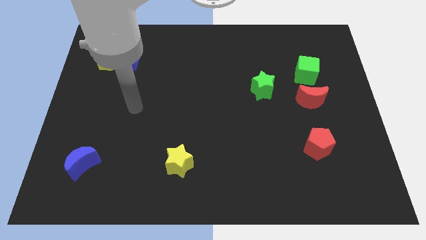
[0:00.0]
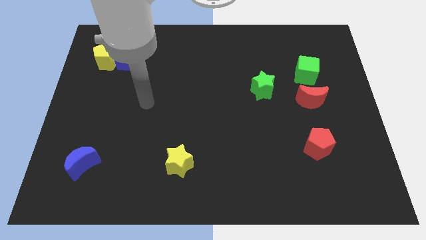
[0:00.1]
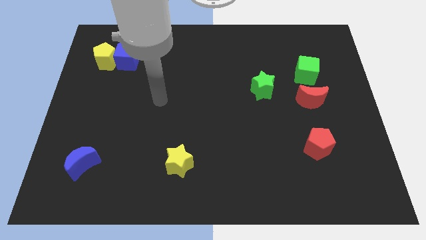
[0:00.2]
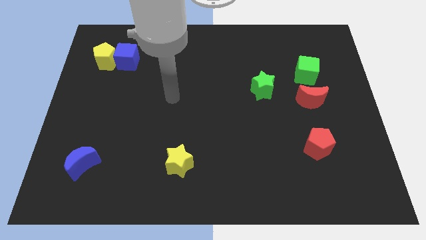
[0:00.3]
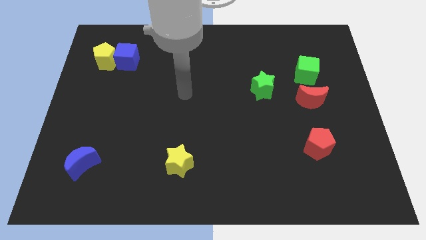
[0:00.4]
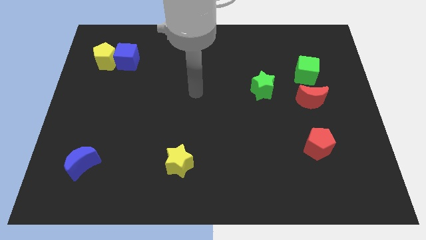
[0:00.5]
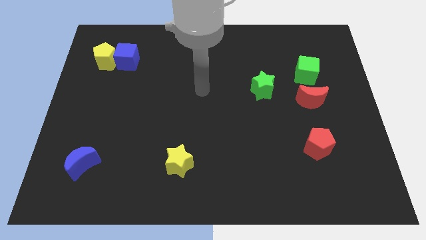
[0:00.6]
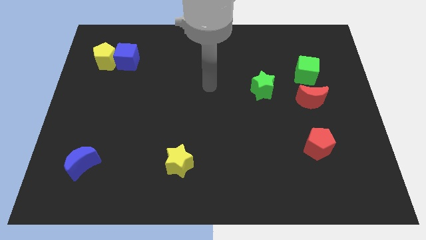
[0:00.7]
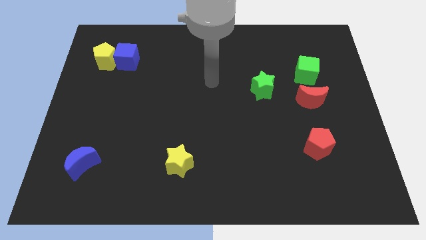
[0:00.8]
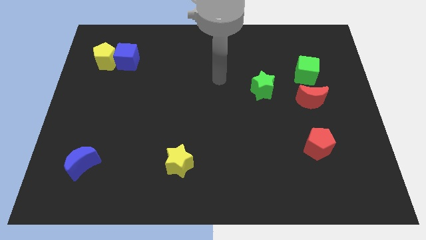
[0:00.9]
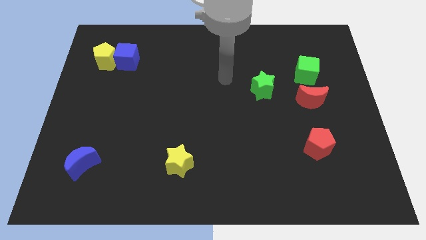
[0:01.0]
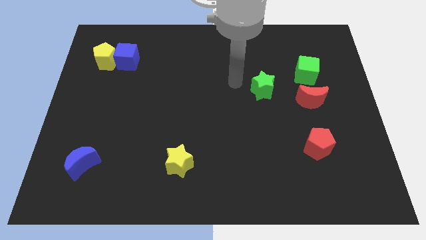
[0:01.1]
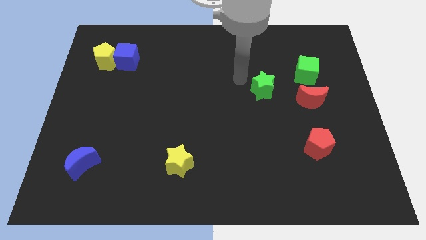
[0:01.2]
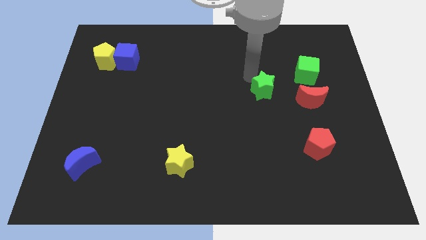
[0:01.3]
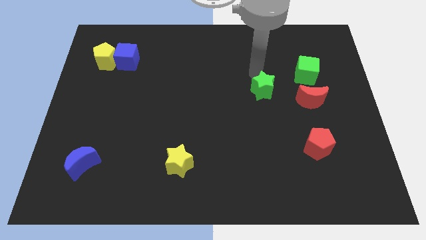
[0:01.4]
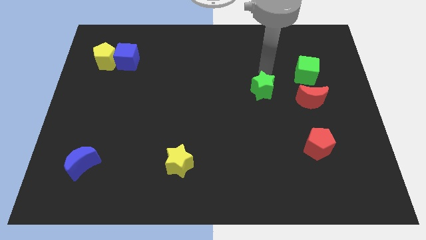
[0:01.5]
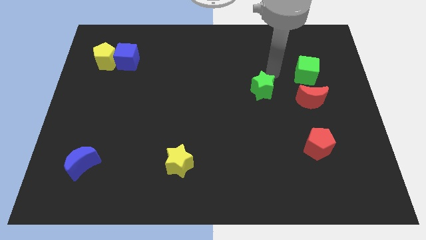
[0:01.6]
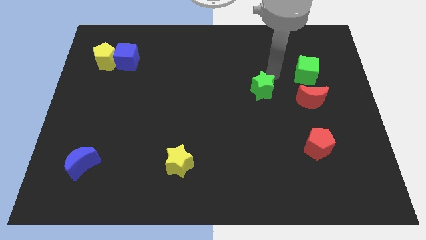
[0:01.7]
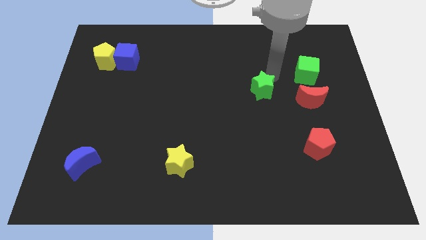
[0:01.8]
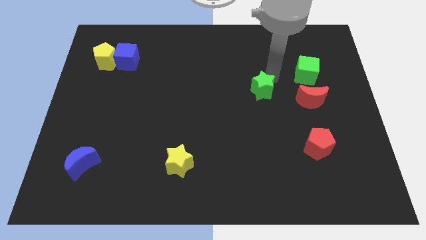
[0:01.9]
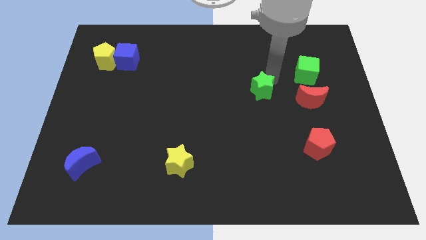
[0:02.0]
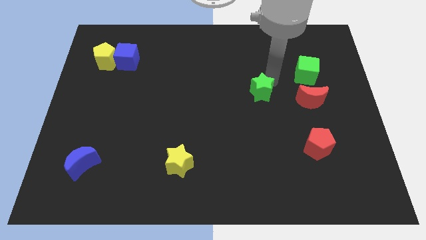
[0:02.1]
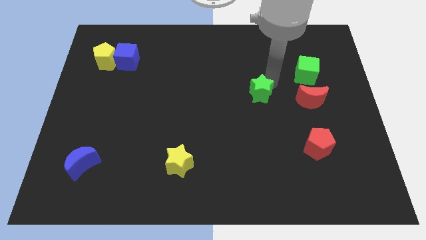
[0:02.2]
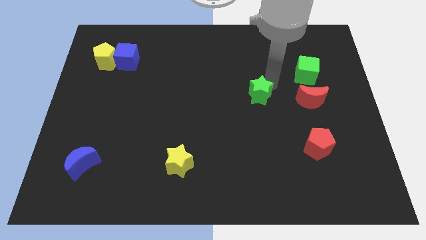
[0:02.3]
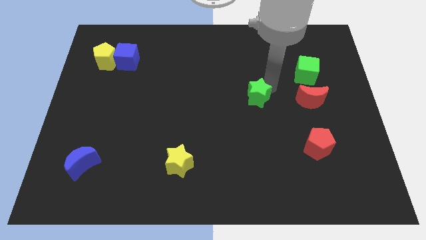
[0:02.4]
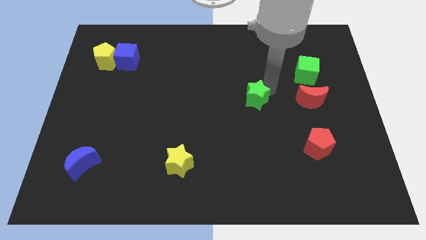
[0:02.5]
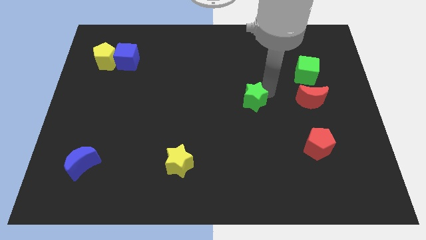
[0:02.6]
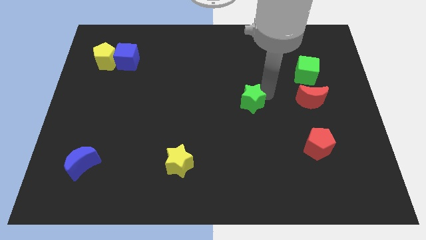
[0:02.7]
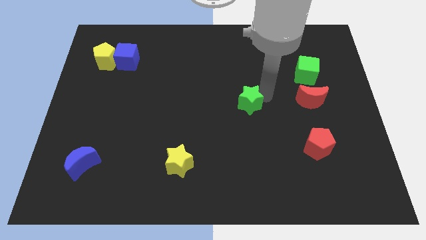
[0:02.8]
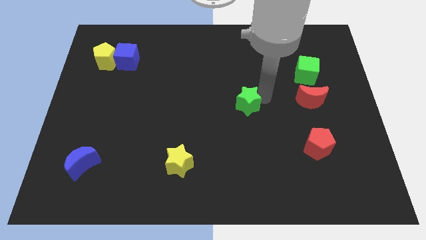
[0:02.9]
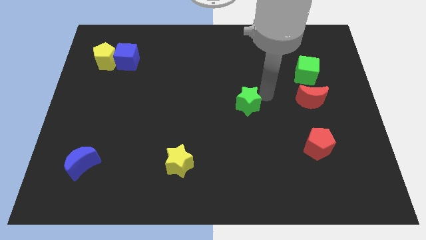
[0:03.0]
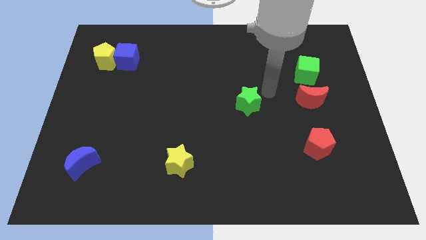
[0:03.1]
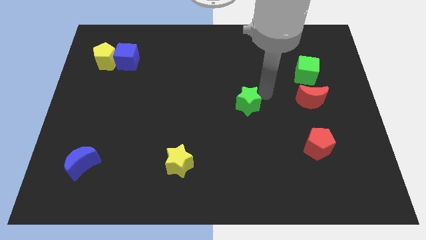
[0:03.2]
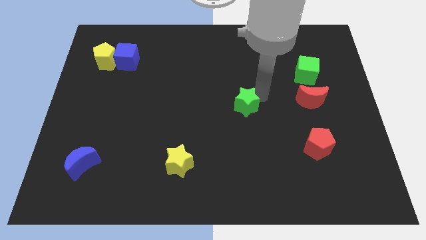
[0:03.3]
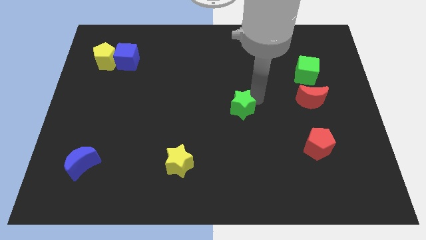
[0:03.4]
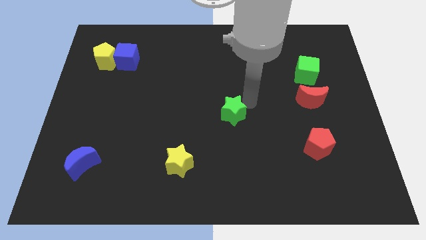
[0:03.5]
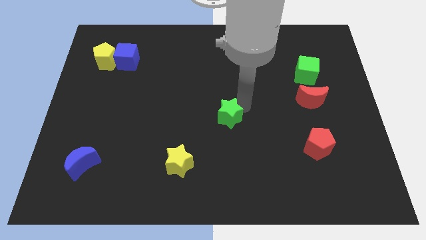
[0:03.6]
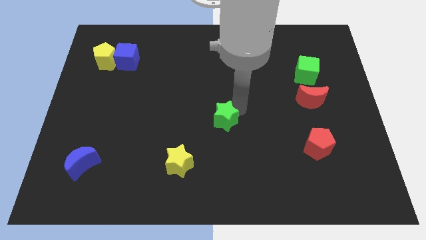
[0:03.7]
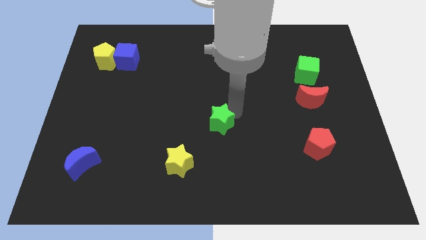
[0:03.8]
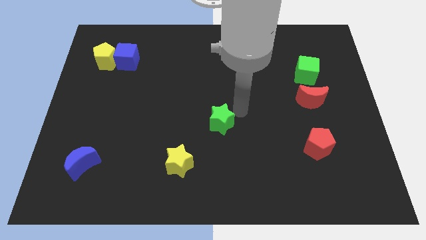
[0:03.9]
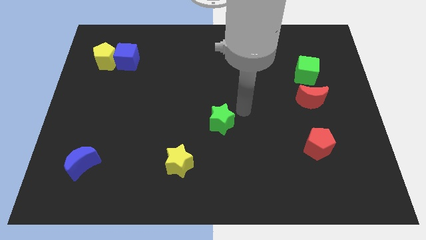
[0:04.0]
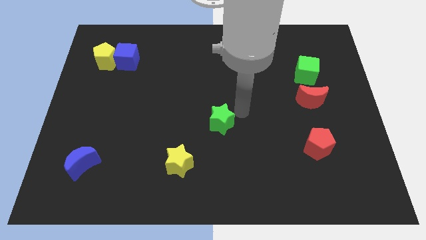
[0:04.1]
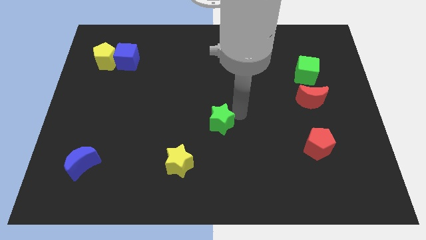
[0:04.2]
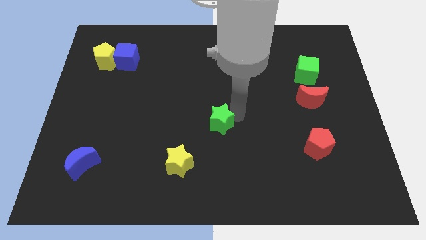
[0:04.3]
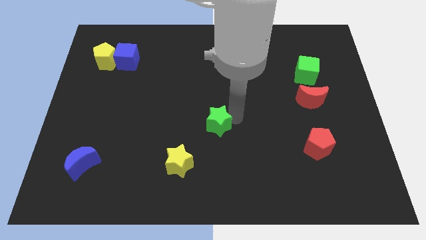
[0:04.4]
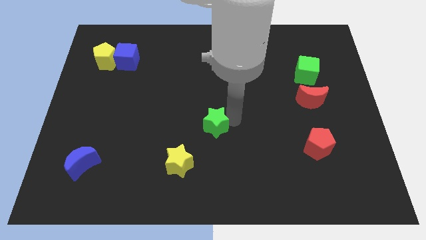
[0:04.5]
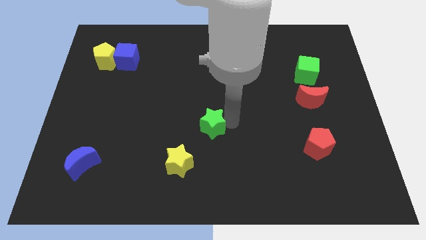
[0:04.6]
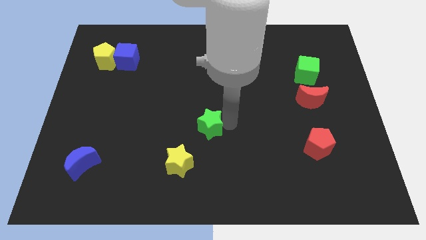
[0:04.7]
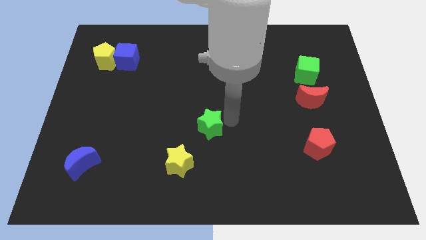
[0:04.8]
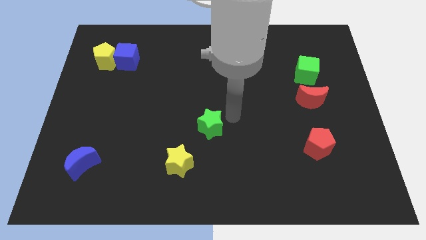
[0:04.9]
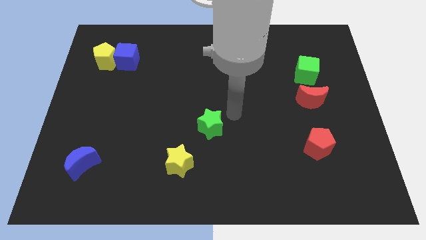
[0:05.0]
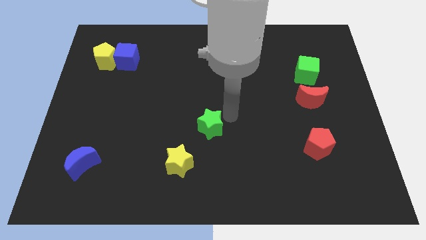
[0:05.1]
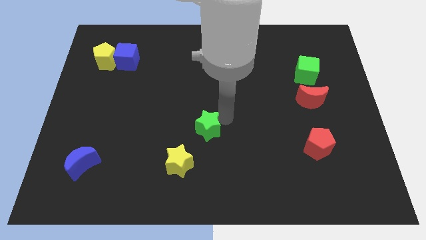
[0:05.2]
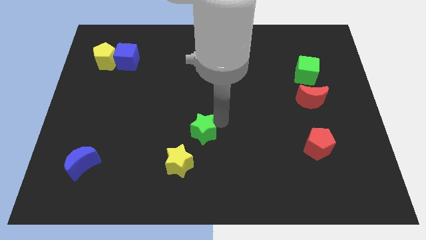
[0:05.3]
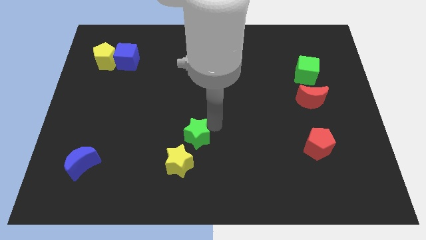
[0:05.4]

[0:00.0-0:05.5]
slide the green star down and then to the left

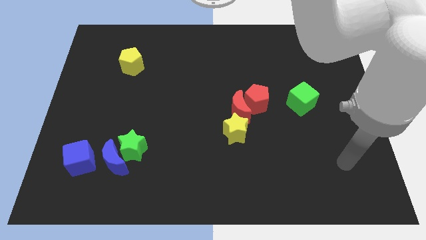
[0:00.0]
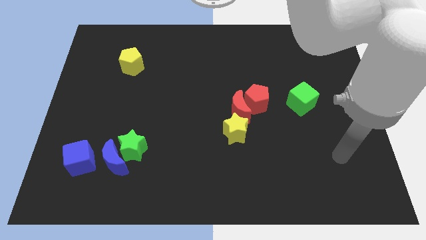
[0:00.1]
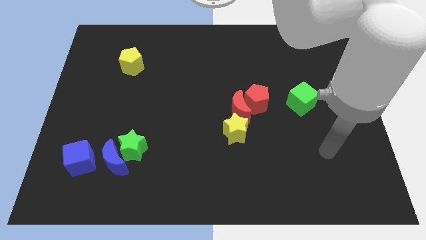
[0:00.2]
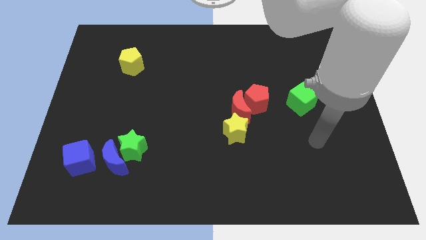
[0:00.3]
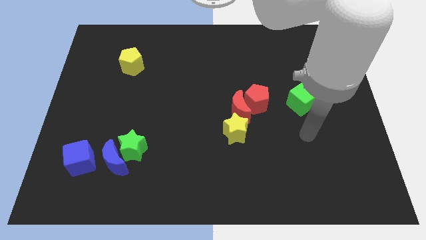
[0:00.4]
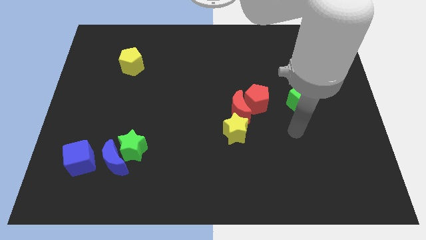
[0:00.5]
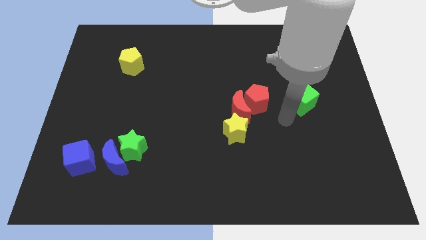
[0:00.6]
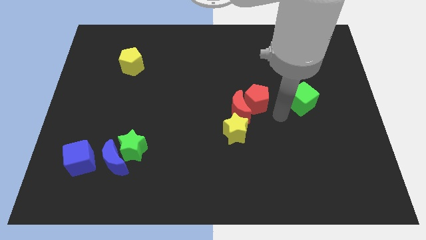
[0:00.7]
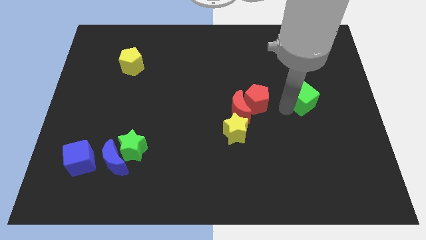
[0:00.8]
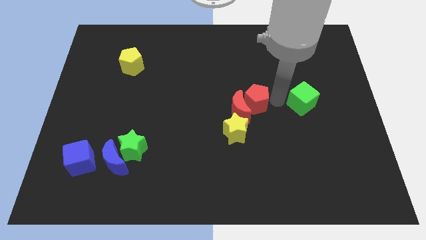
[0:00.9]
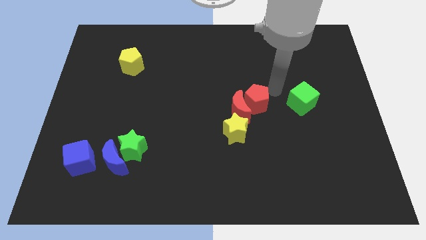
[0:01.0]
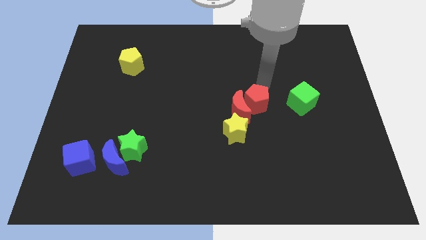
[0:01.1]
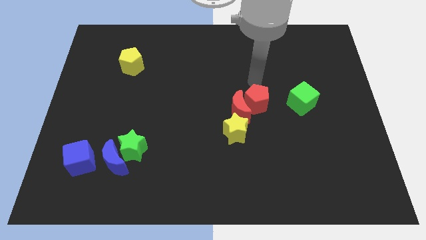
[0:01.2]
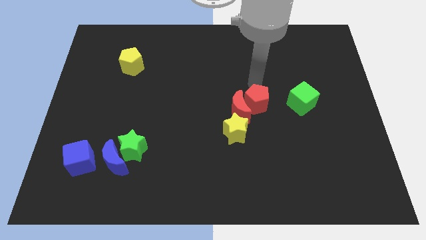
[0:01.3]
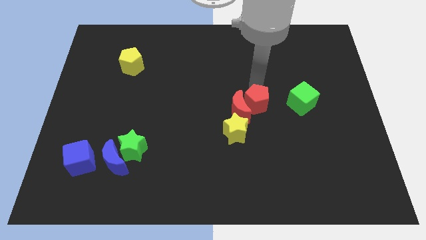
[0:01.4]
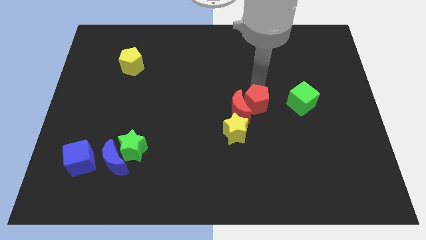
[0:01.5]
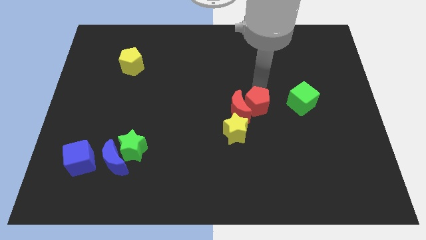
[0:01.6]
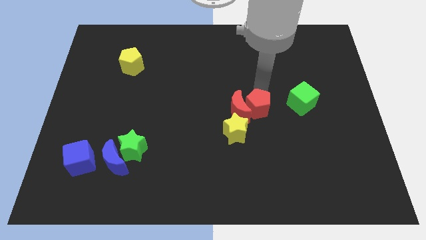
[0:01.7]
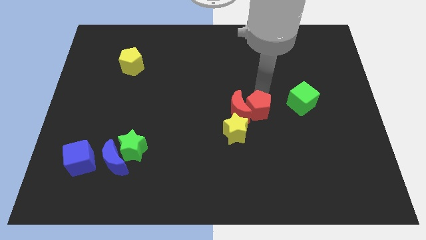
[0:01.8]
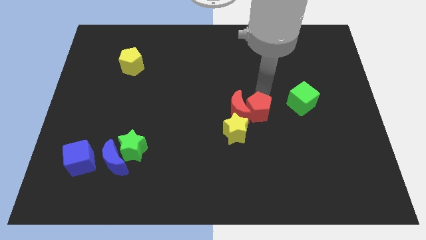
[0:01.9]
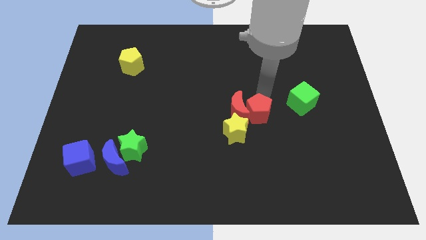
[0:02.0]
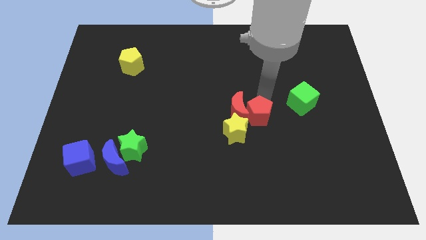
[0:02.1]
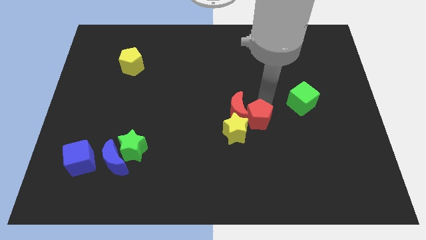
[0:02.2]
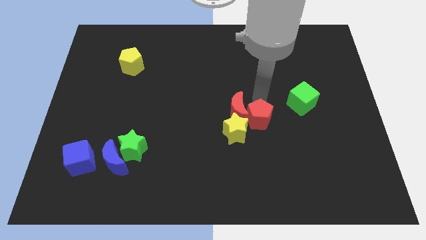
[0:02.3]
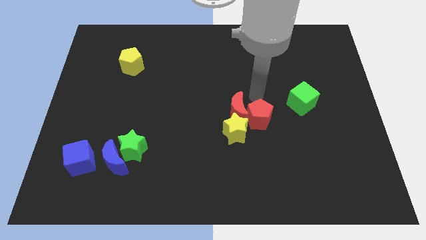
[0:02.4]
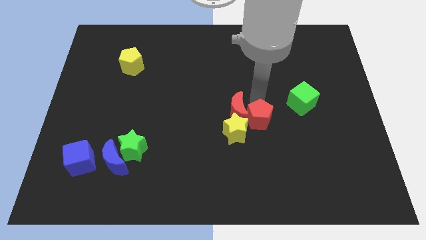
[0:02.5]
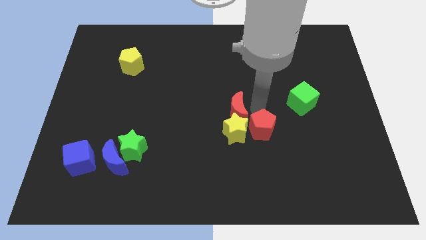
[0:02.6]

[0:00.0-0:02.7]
move the red pentagon down a little

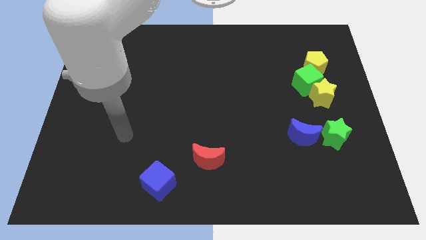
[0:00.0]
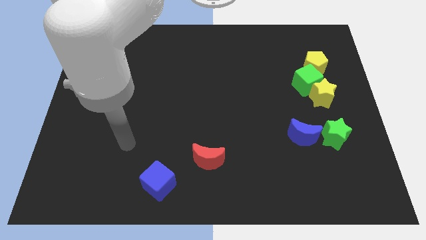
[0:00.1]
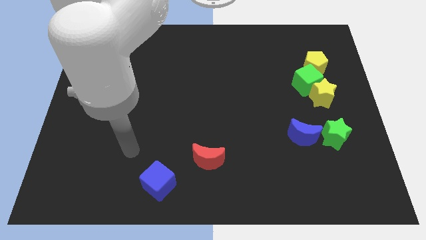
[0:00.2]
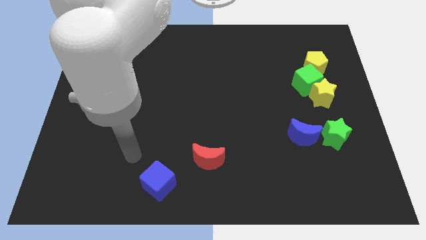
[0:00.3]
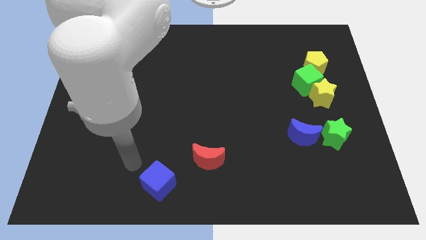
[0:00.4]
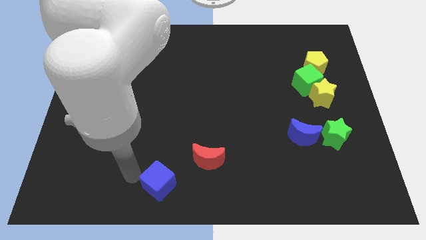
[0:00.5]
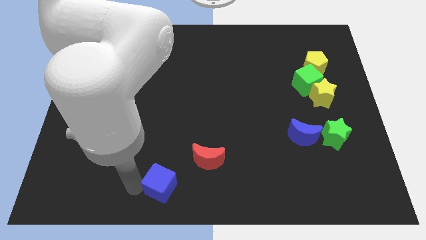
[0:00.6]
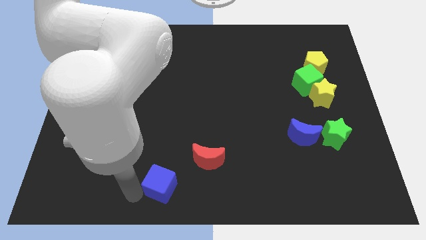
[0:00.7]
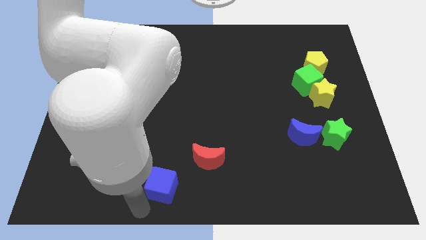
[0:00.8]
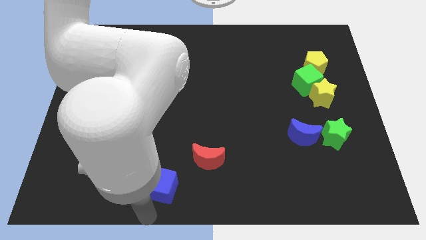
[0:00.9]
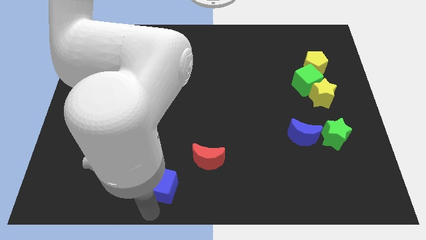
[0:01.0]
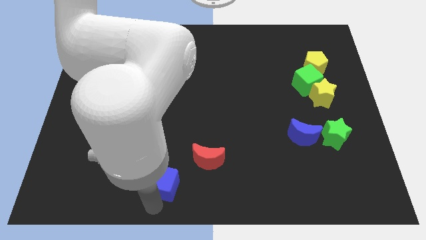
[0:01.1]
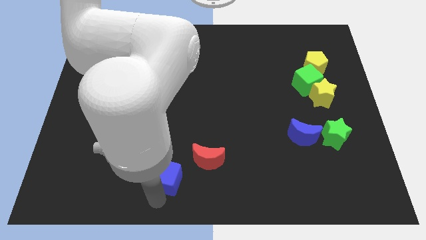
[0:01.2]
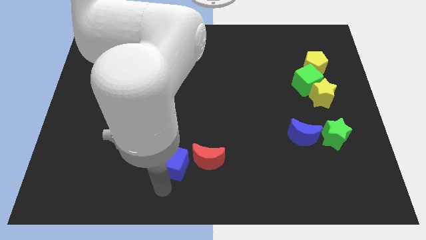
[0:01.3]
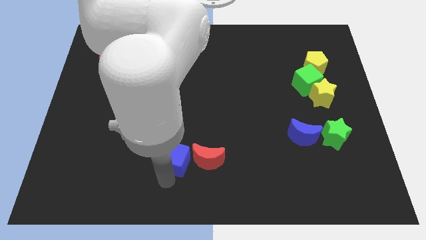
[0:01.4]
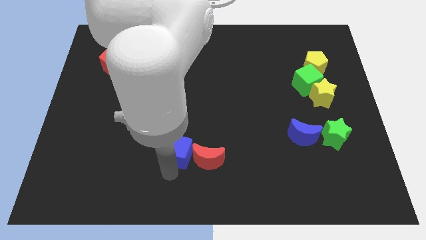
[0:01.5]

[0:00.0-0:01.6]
slightly move the blue cube diagonally upwards and right
